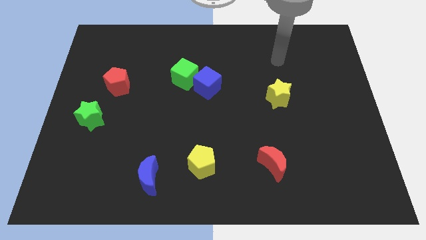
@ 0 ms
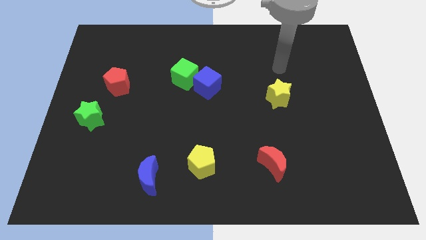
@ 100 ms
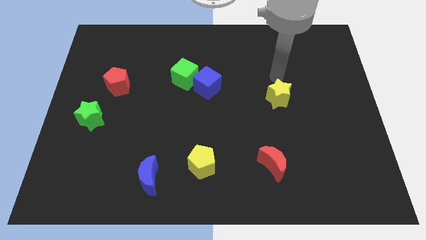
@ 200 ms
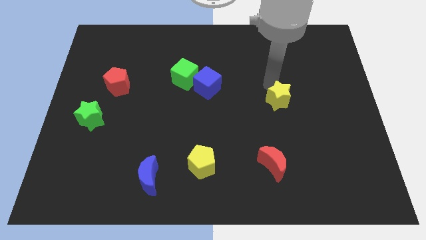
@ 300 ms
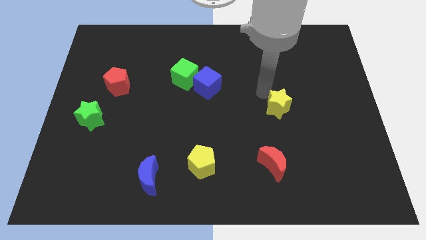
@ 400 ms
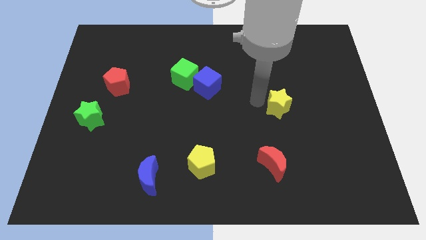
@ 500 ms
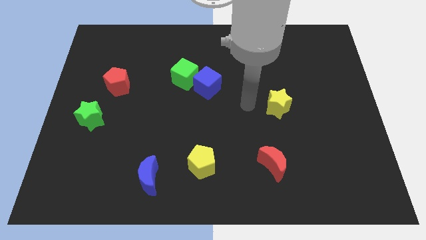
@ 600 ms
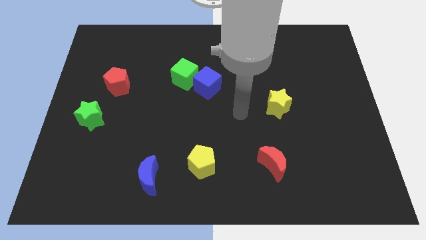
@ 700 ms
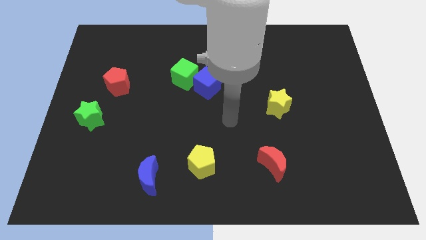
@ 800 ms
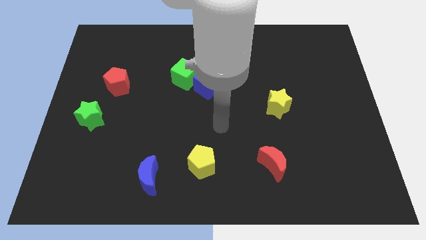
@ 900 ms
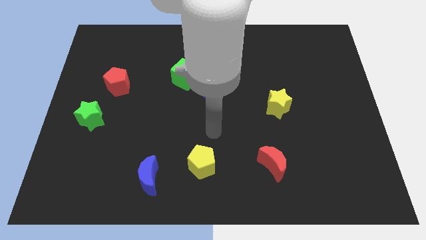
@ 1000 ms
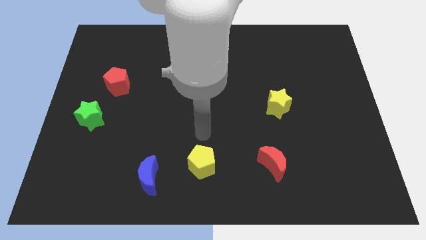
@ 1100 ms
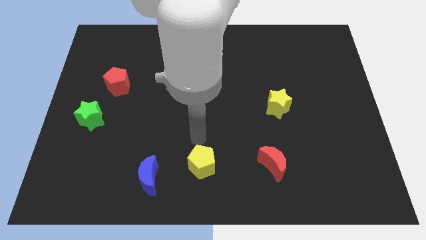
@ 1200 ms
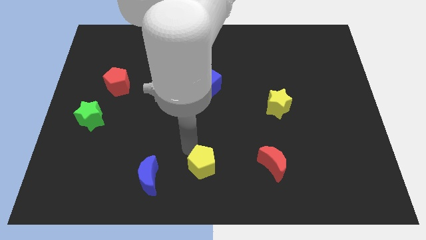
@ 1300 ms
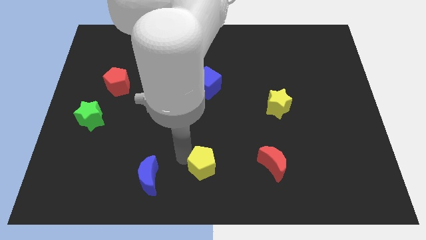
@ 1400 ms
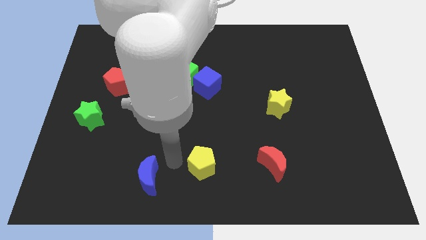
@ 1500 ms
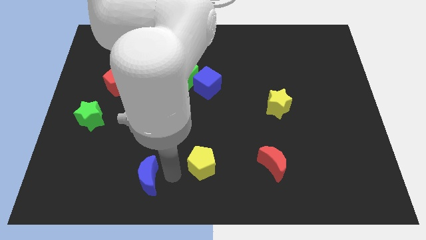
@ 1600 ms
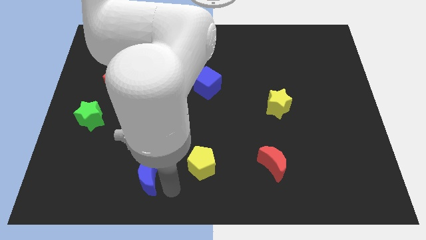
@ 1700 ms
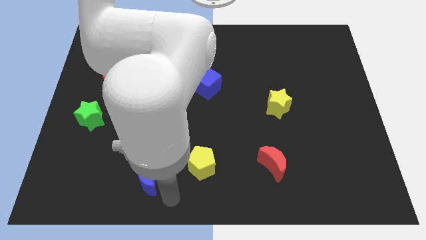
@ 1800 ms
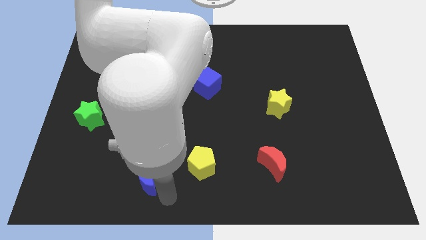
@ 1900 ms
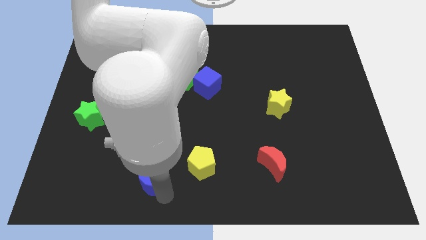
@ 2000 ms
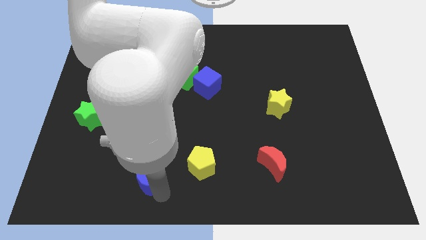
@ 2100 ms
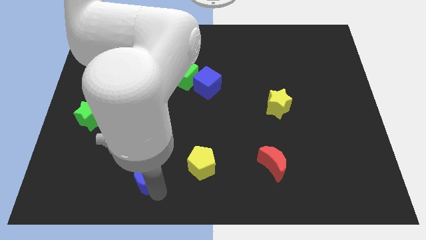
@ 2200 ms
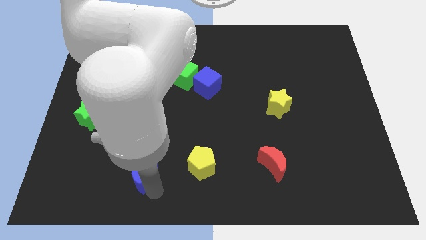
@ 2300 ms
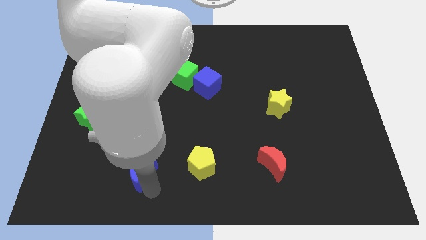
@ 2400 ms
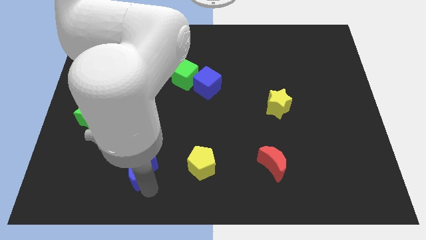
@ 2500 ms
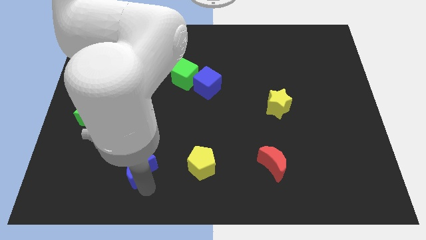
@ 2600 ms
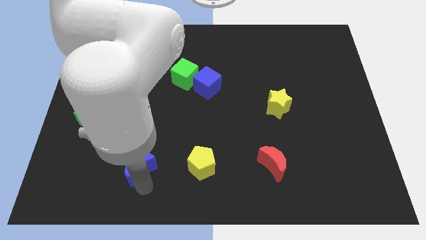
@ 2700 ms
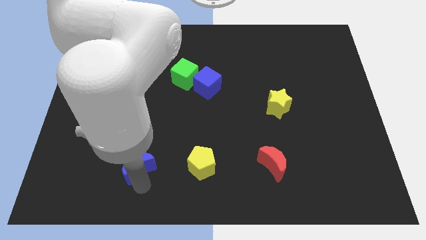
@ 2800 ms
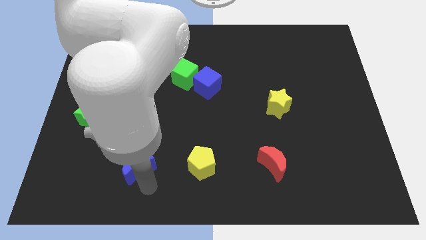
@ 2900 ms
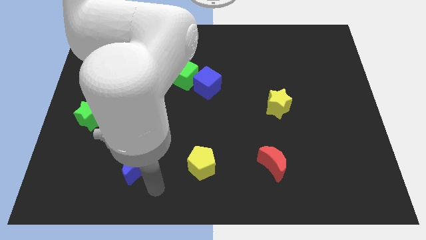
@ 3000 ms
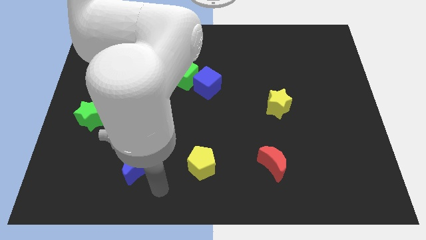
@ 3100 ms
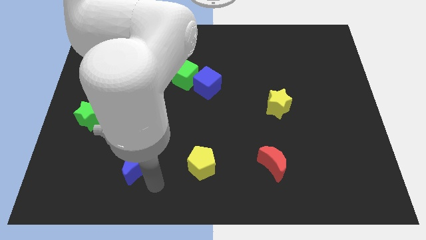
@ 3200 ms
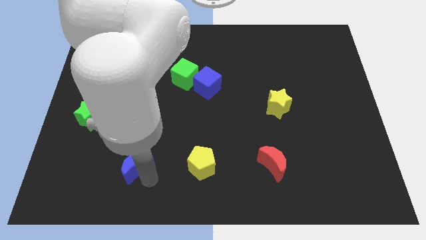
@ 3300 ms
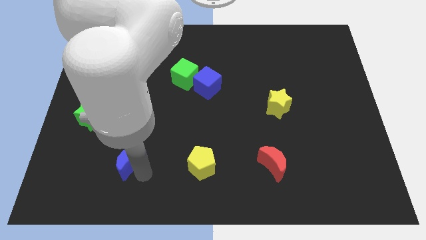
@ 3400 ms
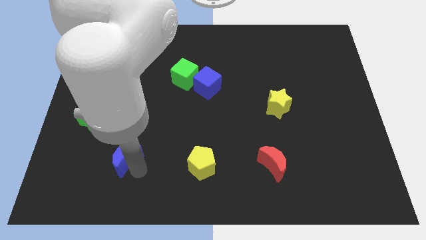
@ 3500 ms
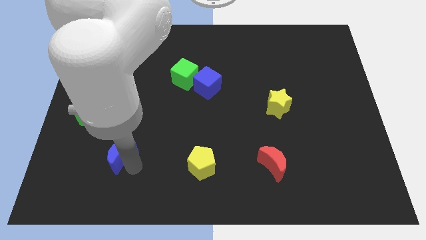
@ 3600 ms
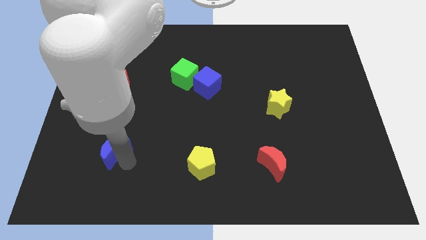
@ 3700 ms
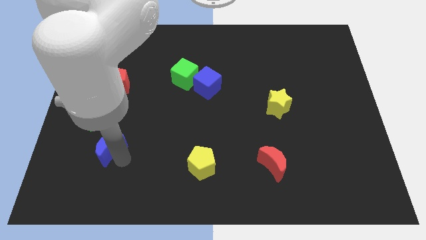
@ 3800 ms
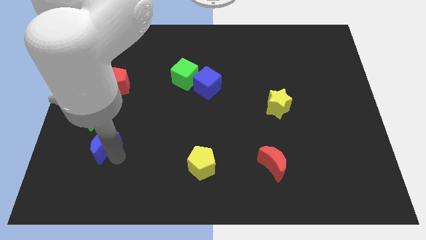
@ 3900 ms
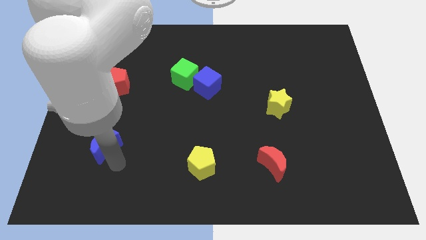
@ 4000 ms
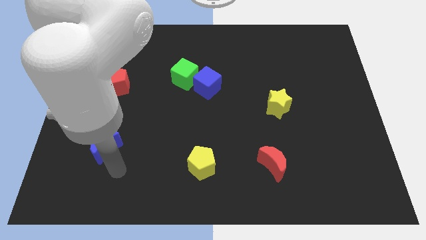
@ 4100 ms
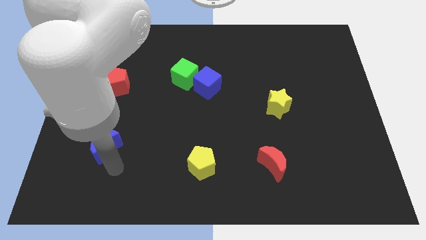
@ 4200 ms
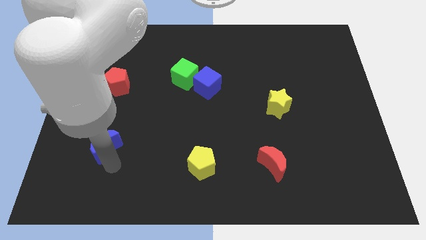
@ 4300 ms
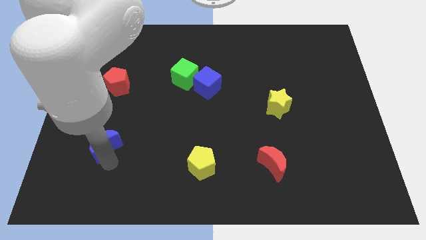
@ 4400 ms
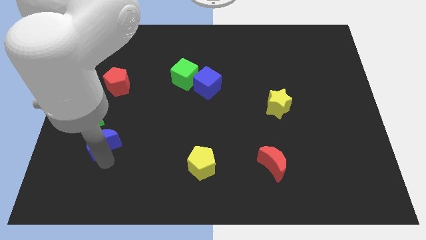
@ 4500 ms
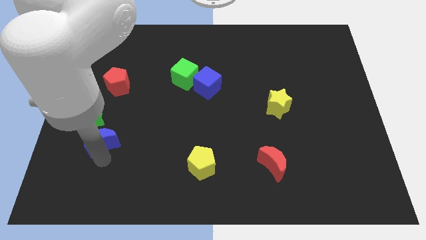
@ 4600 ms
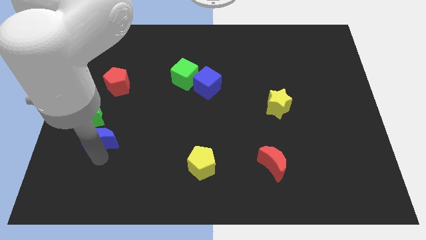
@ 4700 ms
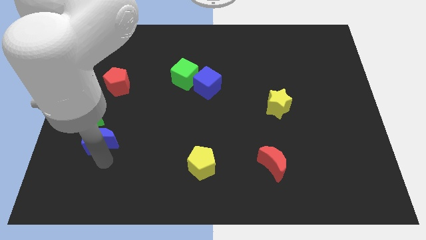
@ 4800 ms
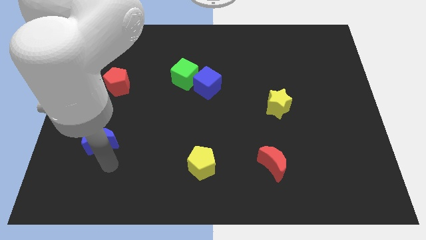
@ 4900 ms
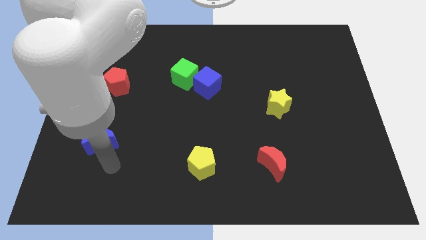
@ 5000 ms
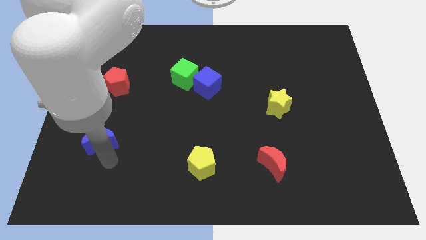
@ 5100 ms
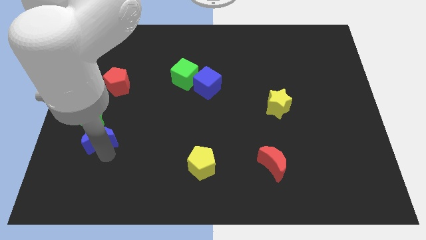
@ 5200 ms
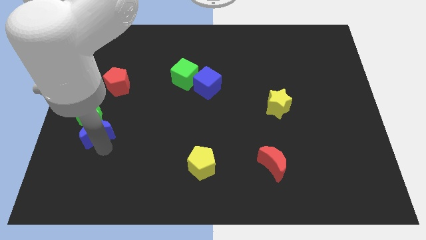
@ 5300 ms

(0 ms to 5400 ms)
put the blue moon close to the green star

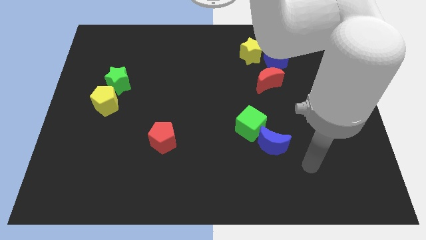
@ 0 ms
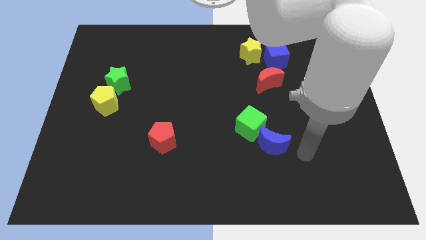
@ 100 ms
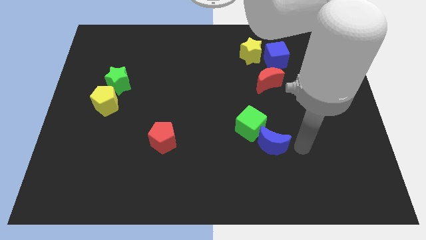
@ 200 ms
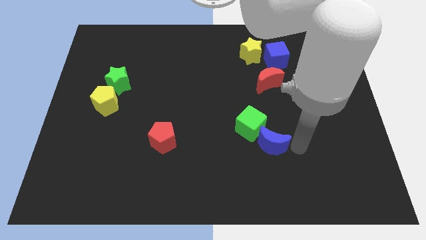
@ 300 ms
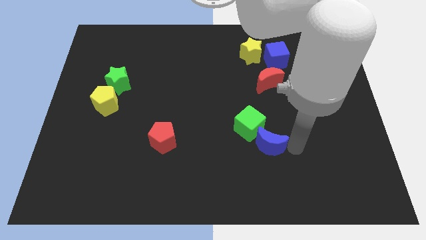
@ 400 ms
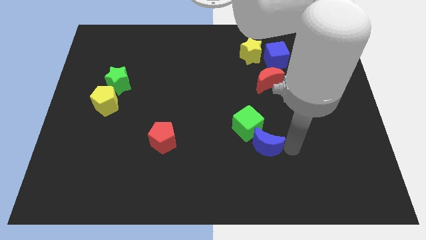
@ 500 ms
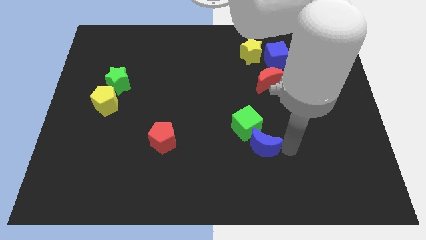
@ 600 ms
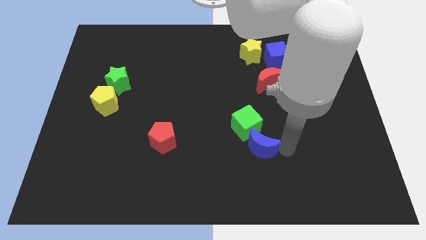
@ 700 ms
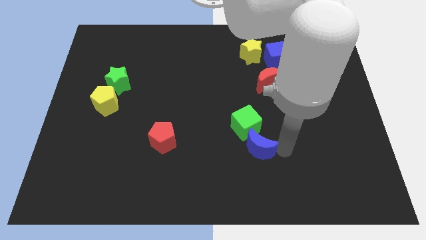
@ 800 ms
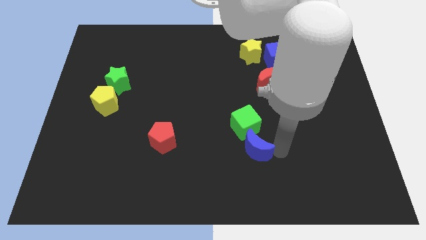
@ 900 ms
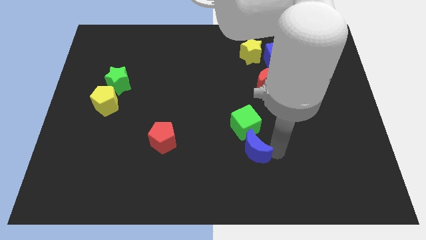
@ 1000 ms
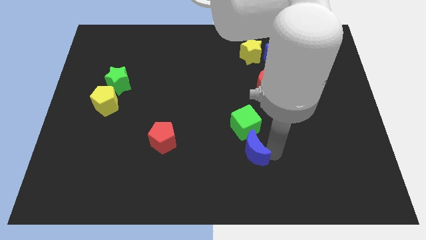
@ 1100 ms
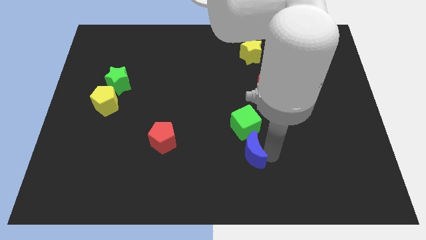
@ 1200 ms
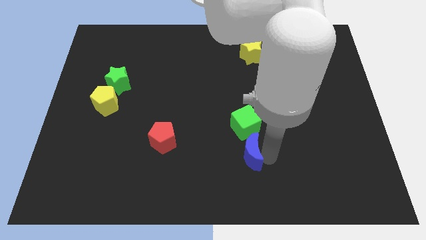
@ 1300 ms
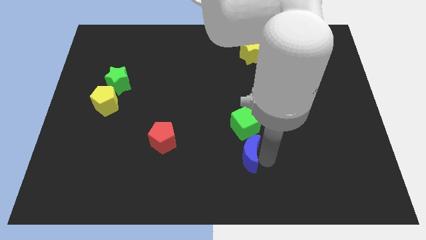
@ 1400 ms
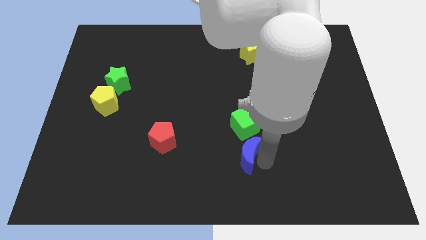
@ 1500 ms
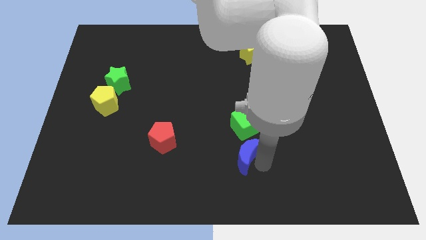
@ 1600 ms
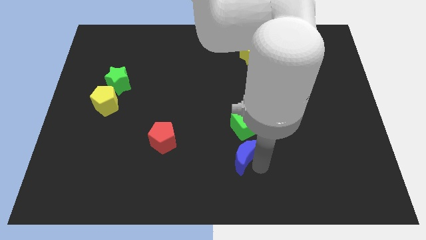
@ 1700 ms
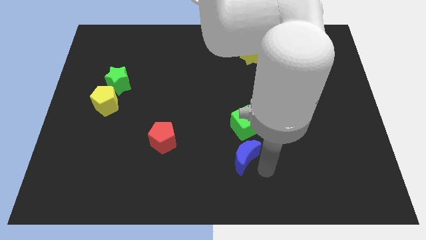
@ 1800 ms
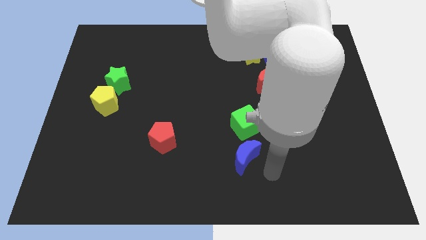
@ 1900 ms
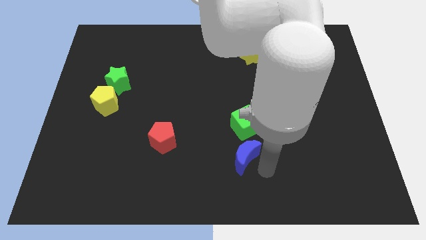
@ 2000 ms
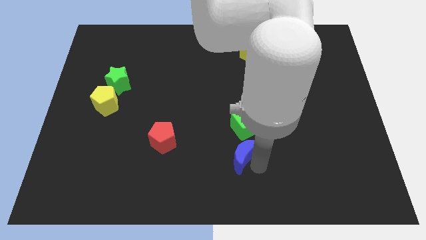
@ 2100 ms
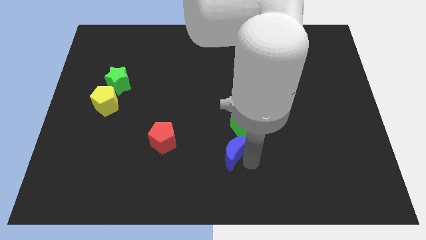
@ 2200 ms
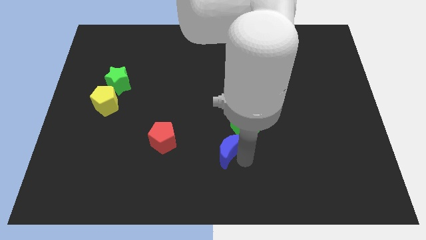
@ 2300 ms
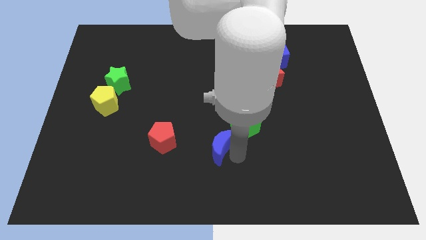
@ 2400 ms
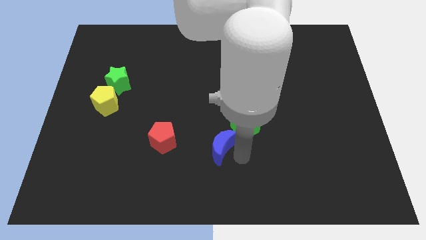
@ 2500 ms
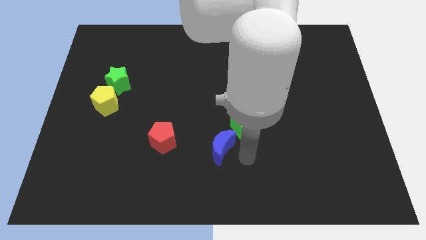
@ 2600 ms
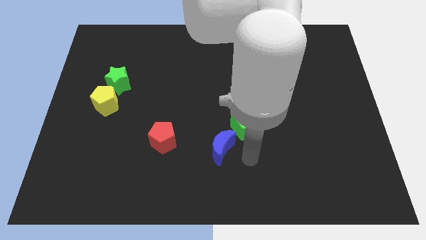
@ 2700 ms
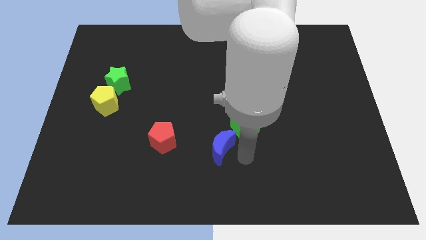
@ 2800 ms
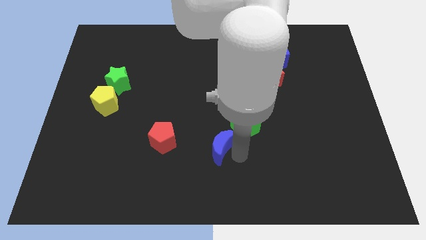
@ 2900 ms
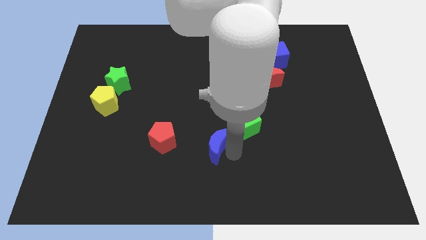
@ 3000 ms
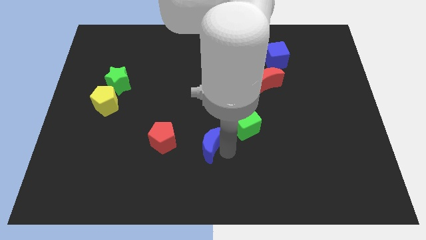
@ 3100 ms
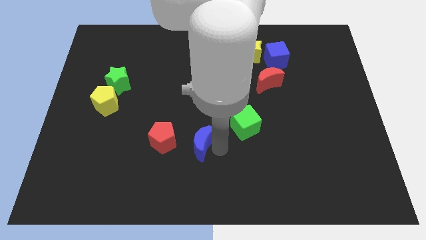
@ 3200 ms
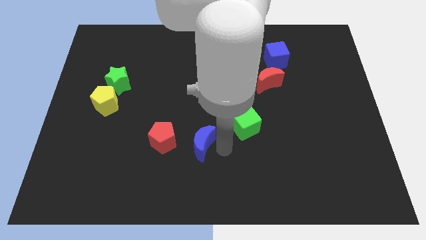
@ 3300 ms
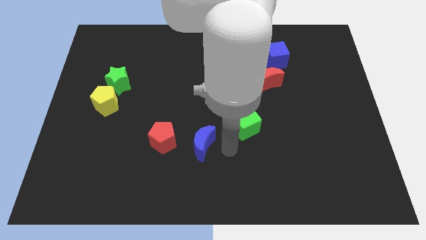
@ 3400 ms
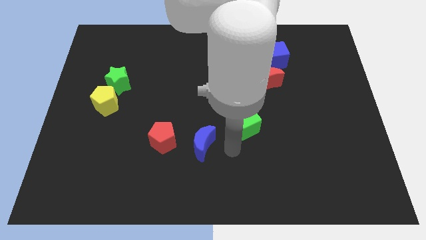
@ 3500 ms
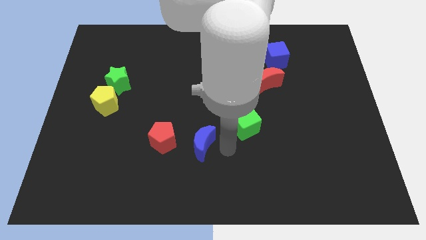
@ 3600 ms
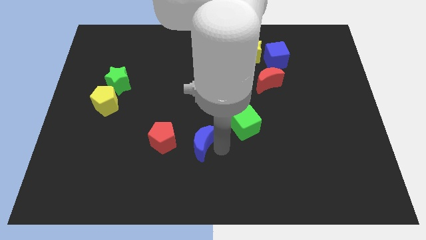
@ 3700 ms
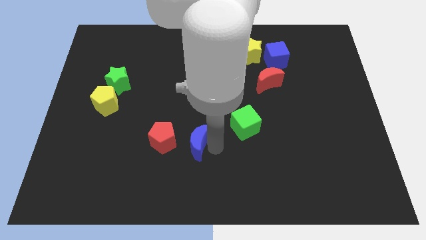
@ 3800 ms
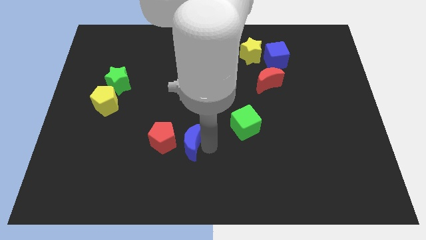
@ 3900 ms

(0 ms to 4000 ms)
slide the blue moon next to the red pentagon
